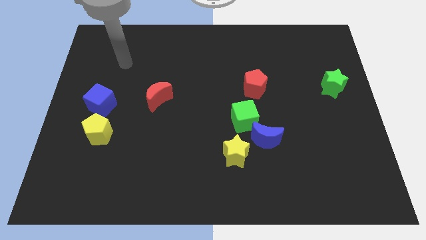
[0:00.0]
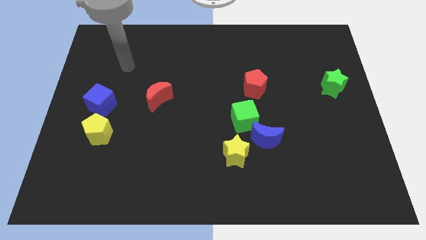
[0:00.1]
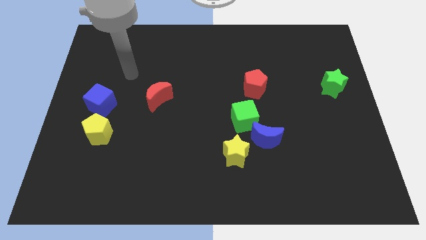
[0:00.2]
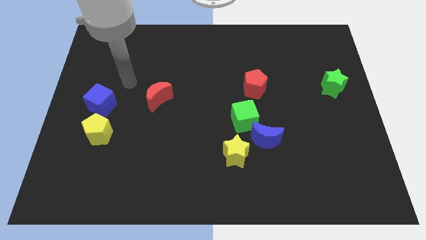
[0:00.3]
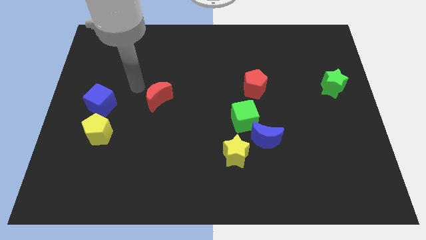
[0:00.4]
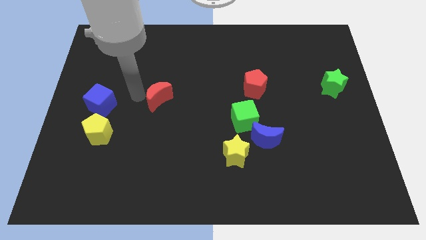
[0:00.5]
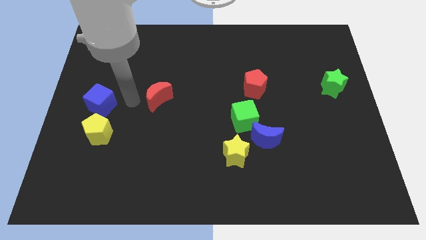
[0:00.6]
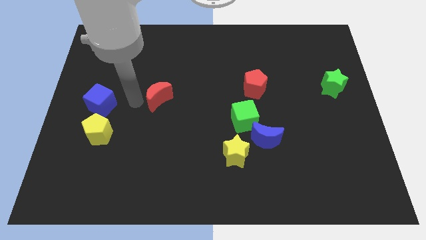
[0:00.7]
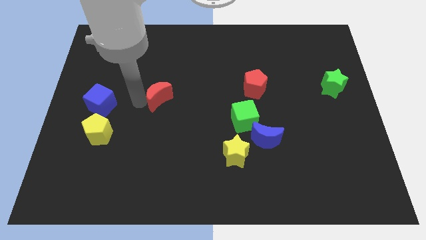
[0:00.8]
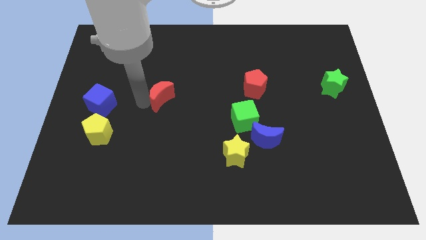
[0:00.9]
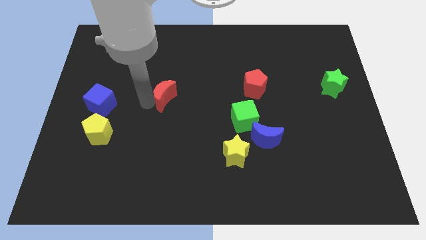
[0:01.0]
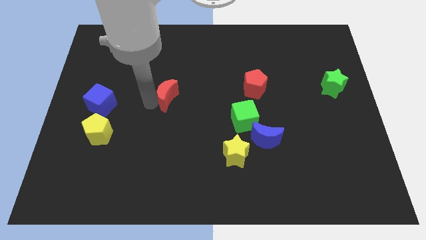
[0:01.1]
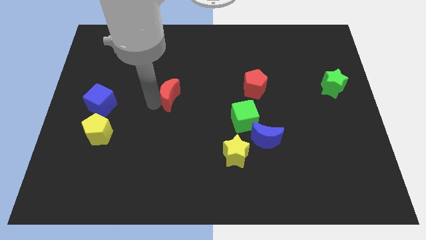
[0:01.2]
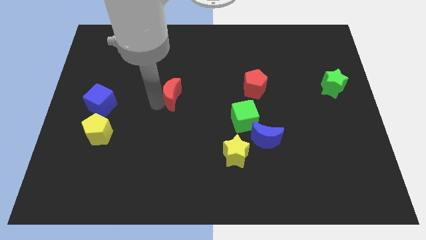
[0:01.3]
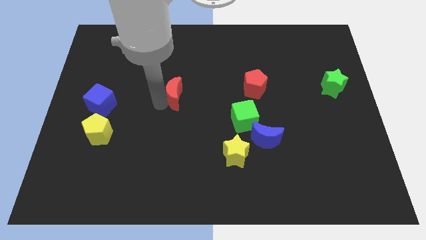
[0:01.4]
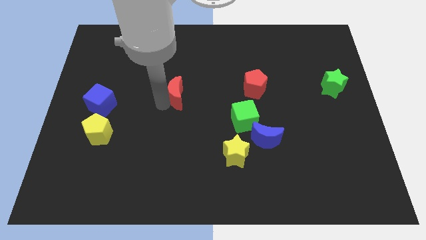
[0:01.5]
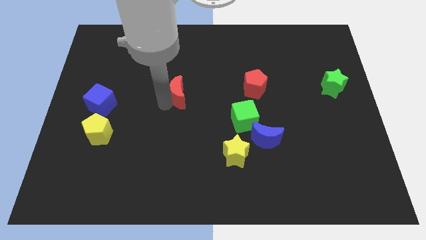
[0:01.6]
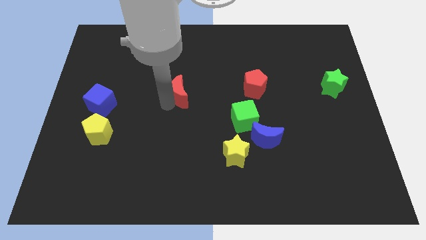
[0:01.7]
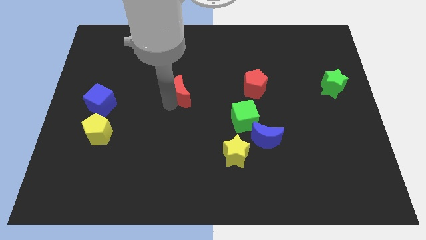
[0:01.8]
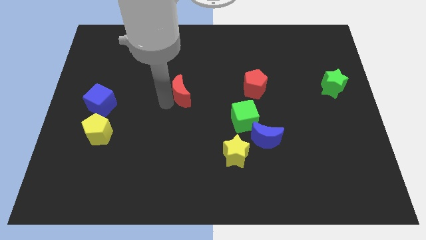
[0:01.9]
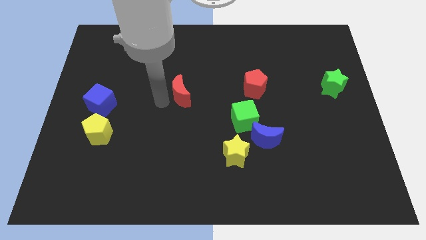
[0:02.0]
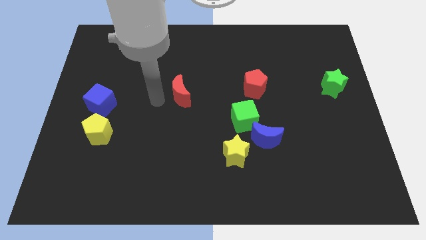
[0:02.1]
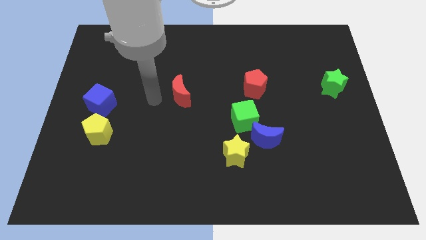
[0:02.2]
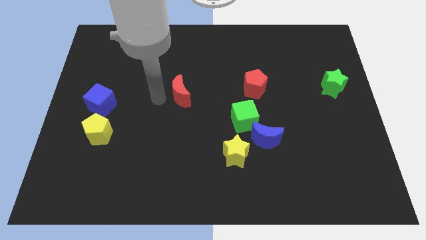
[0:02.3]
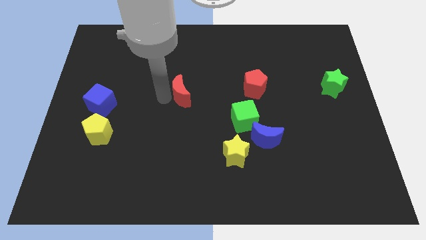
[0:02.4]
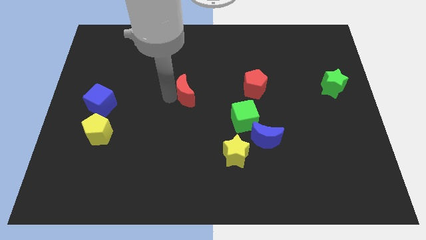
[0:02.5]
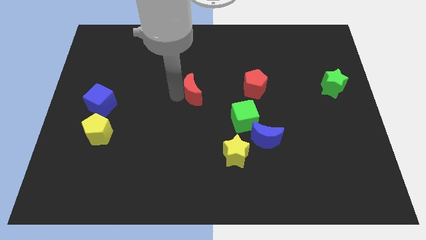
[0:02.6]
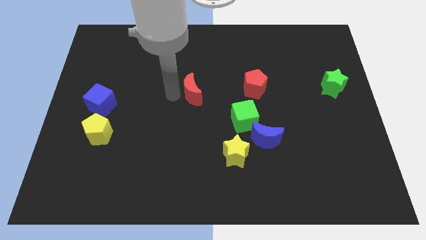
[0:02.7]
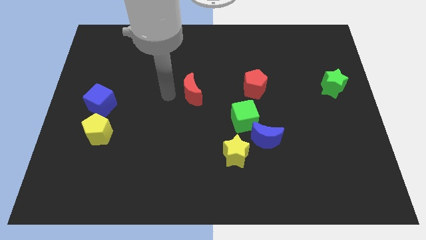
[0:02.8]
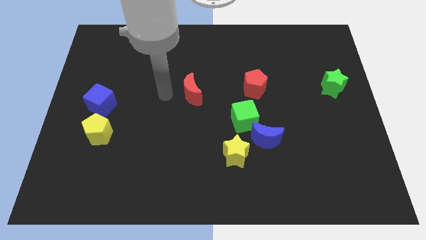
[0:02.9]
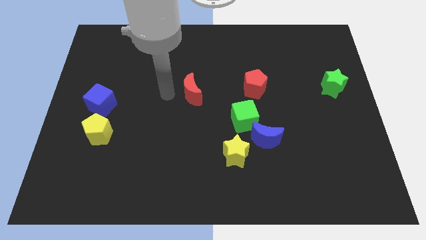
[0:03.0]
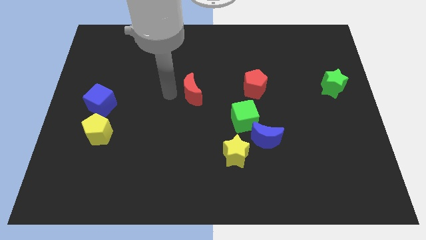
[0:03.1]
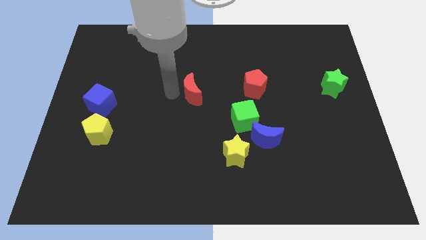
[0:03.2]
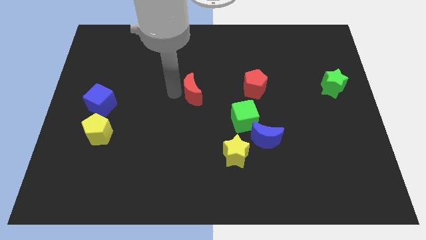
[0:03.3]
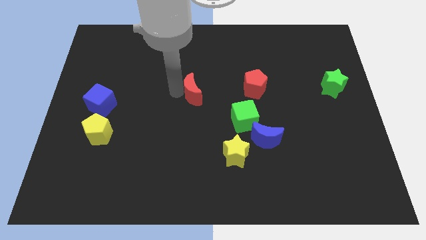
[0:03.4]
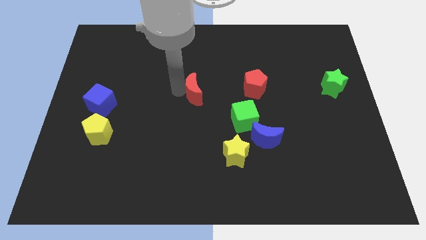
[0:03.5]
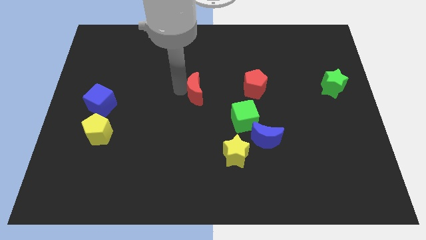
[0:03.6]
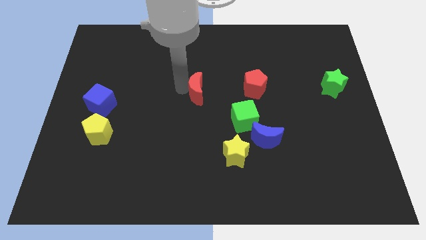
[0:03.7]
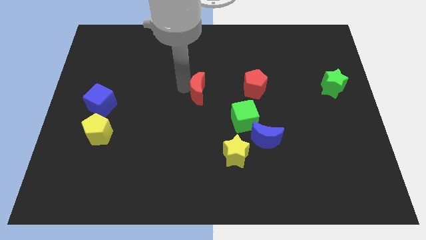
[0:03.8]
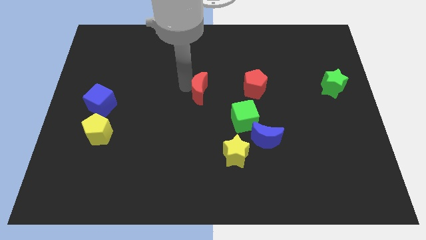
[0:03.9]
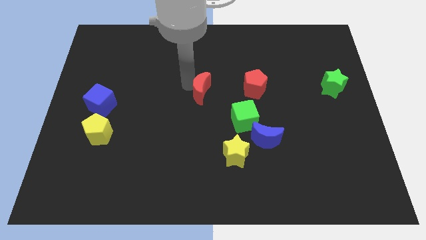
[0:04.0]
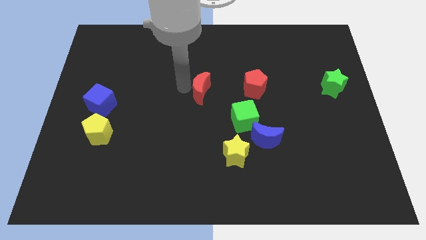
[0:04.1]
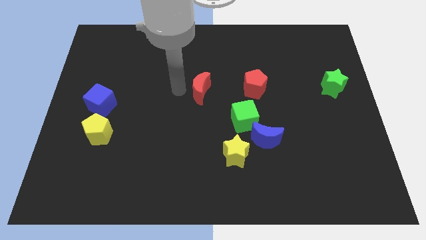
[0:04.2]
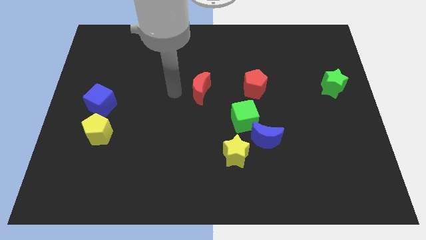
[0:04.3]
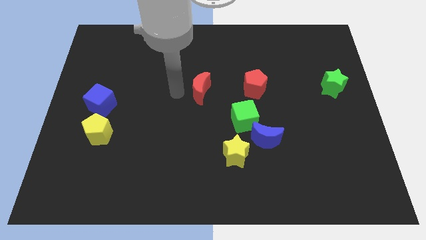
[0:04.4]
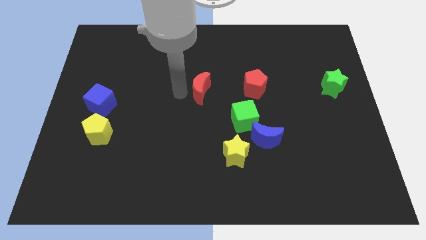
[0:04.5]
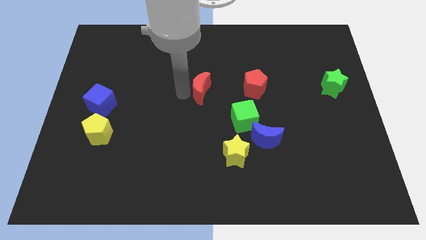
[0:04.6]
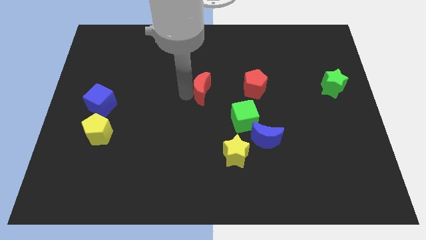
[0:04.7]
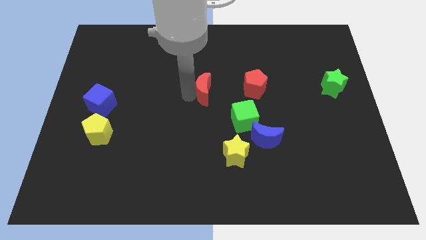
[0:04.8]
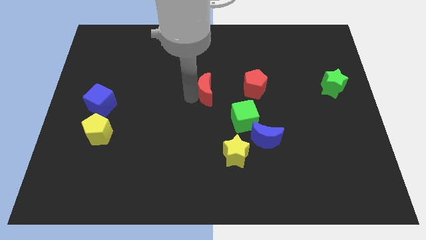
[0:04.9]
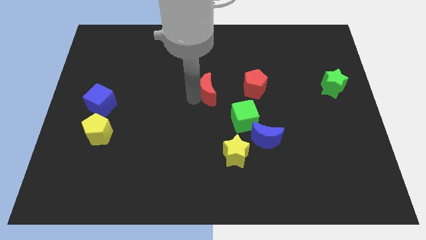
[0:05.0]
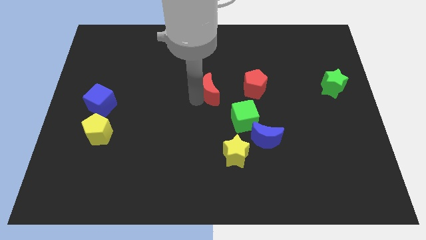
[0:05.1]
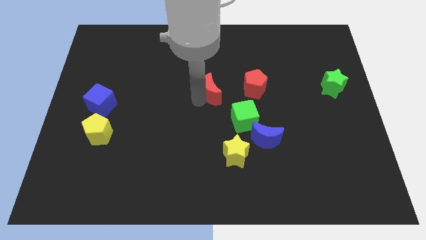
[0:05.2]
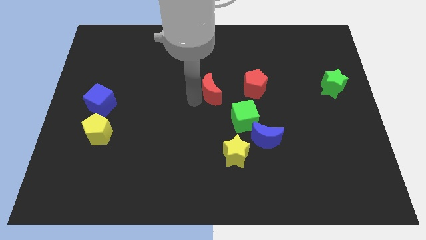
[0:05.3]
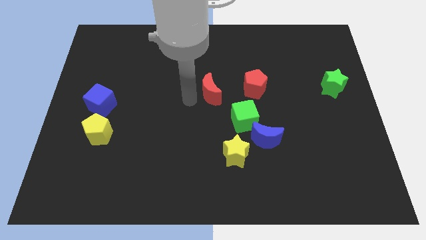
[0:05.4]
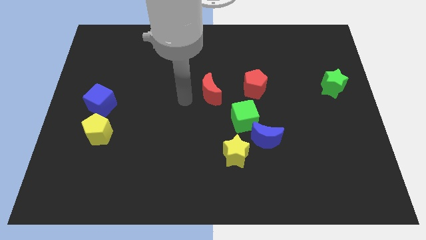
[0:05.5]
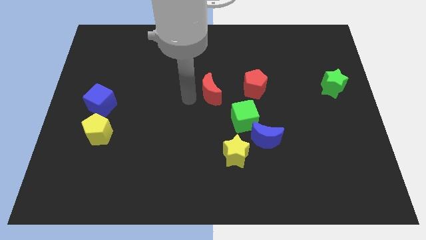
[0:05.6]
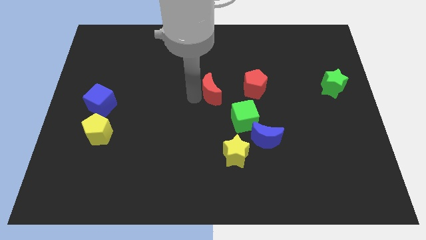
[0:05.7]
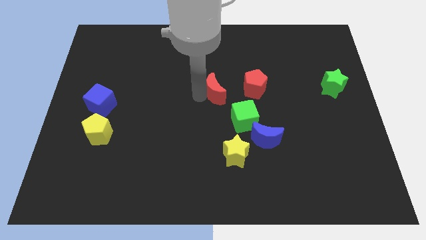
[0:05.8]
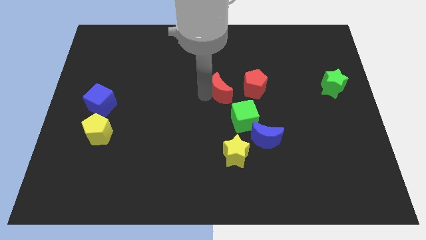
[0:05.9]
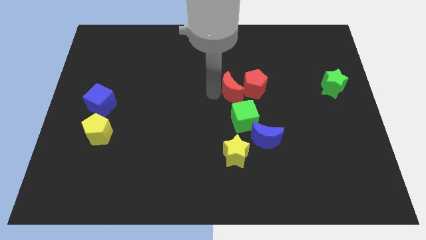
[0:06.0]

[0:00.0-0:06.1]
put the red moon towards the red pentagon

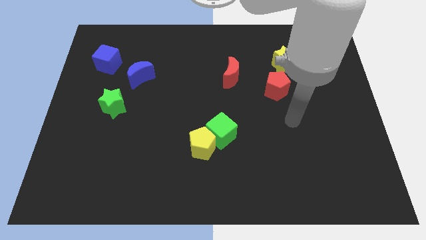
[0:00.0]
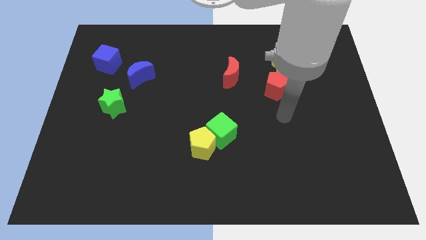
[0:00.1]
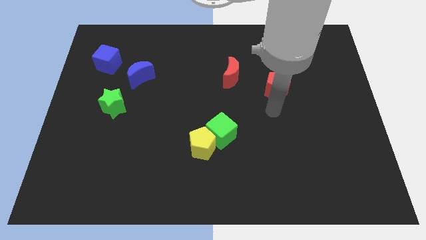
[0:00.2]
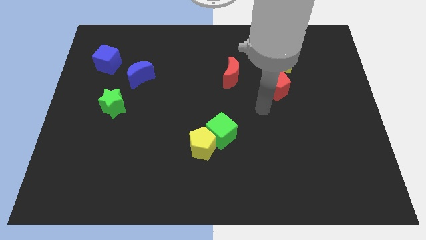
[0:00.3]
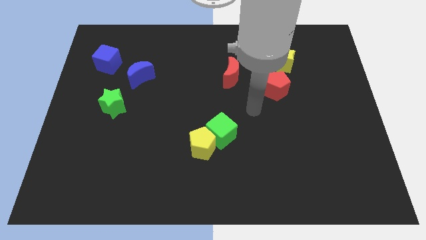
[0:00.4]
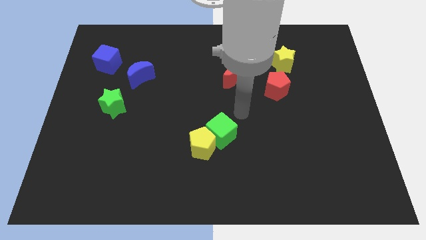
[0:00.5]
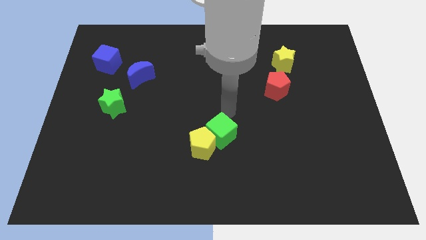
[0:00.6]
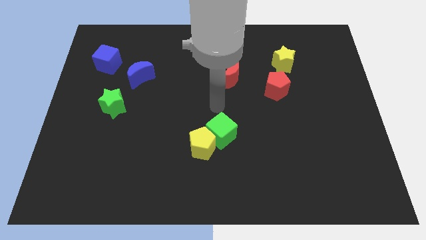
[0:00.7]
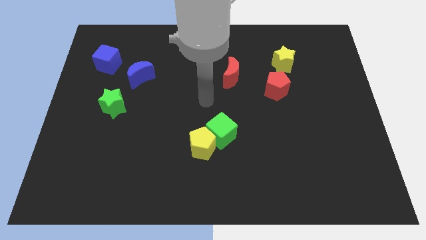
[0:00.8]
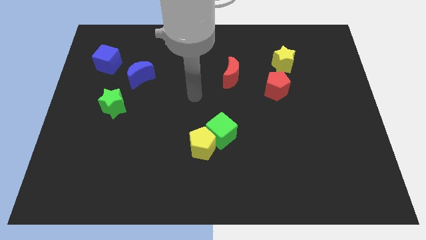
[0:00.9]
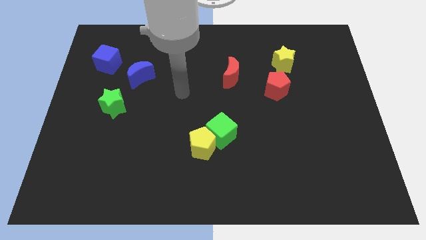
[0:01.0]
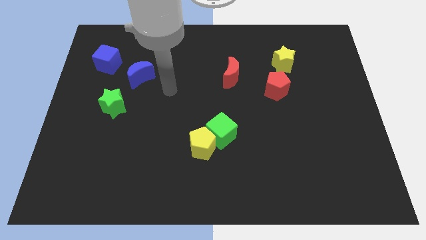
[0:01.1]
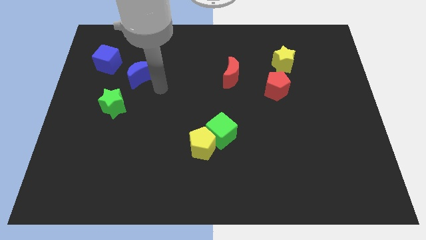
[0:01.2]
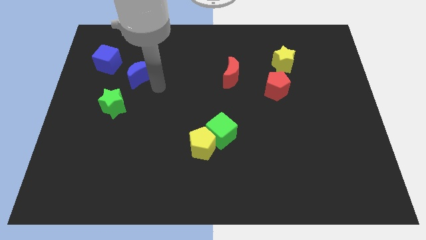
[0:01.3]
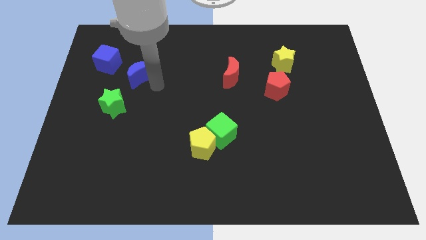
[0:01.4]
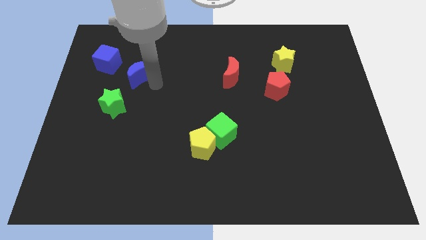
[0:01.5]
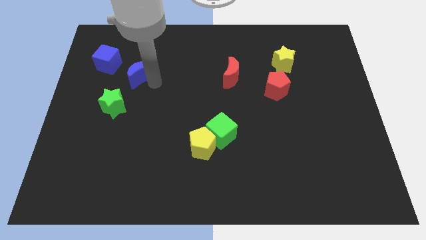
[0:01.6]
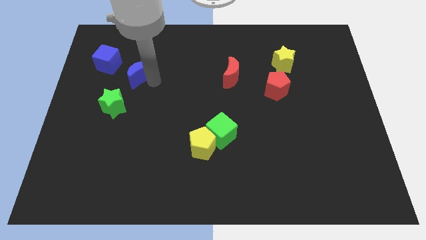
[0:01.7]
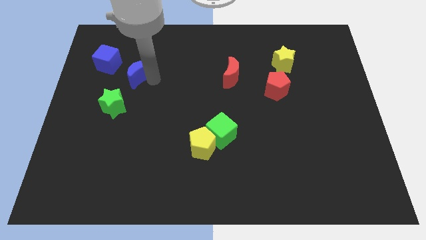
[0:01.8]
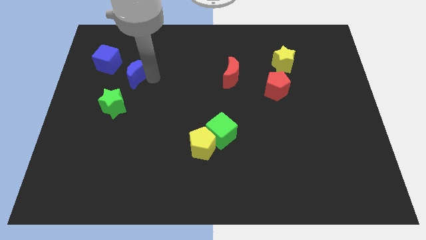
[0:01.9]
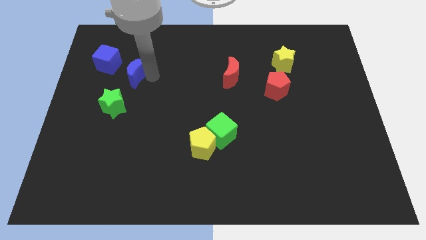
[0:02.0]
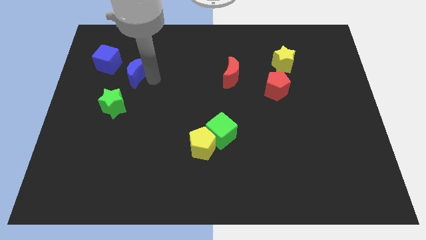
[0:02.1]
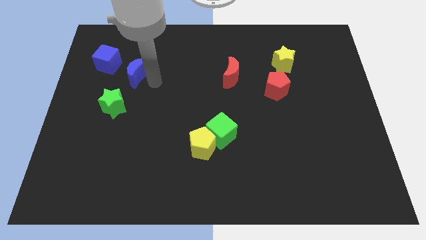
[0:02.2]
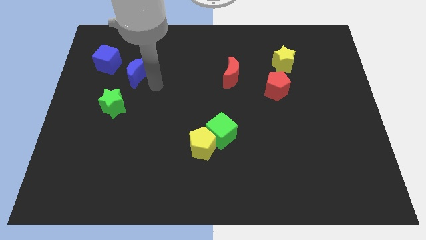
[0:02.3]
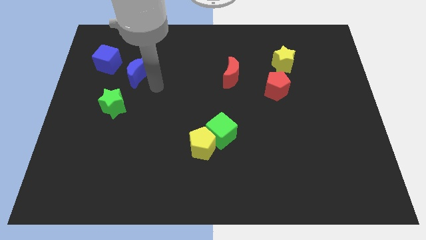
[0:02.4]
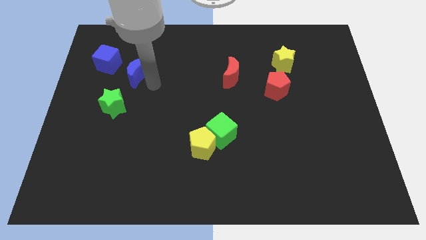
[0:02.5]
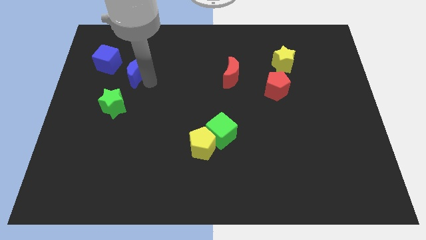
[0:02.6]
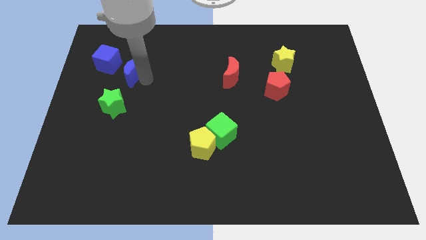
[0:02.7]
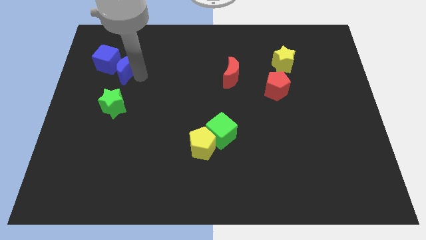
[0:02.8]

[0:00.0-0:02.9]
push the blue moon to the blue cube
